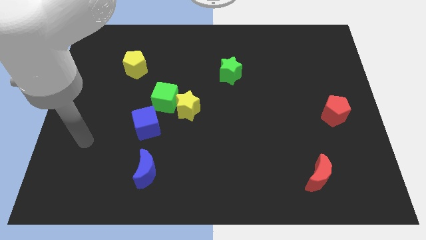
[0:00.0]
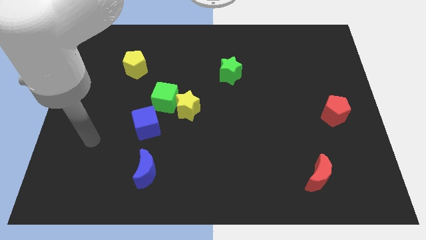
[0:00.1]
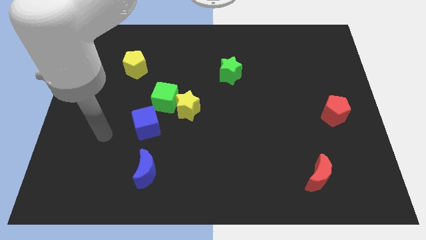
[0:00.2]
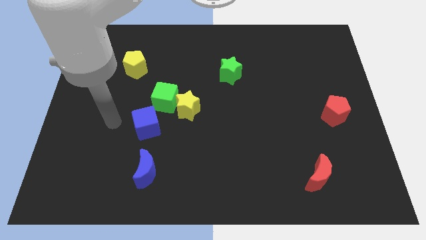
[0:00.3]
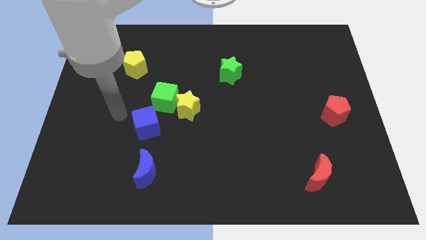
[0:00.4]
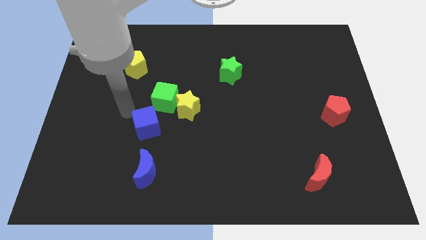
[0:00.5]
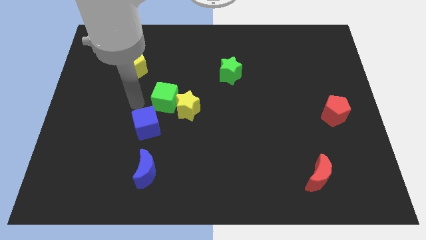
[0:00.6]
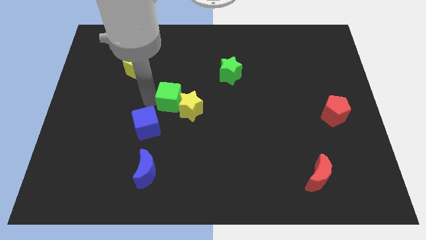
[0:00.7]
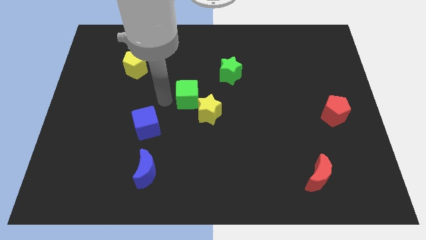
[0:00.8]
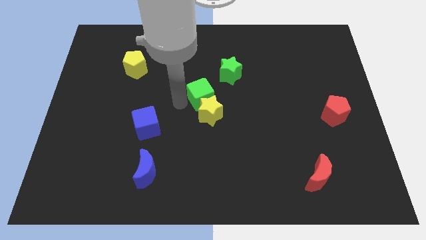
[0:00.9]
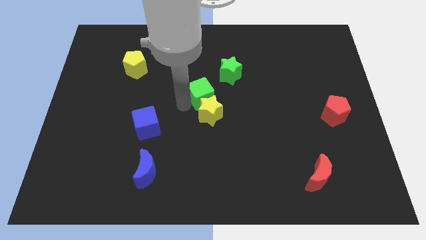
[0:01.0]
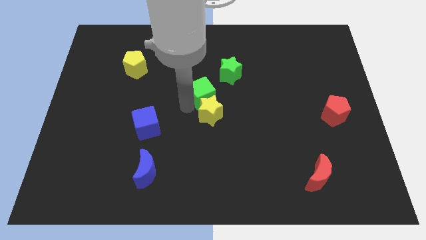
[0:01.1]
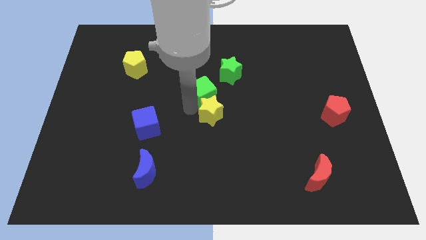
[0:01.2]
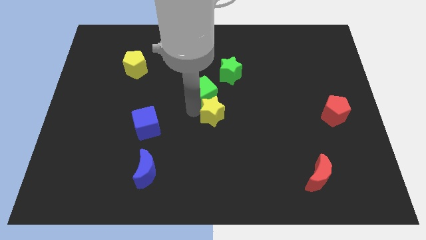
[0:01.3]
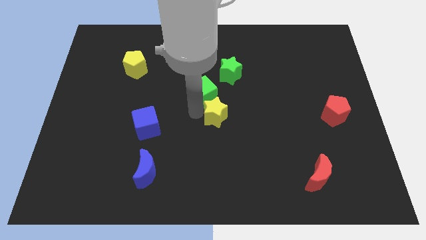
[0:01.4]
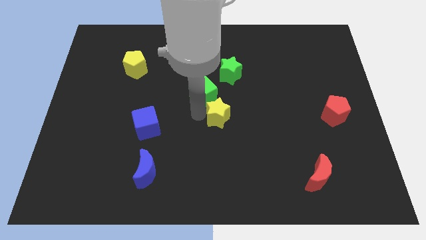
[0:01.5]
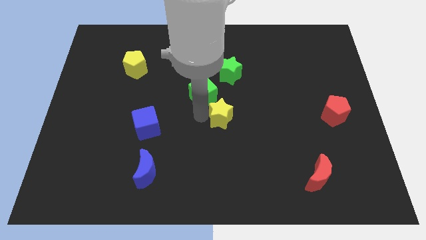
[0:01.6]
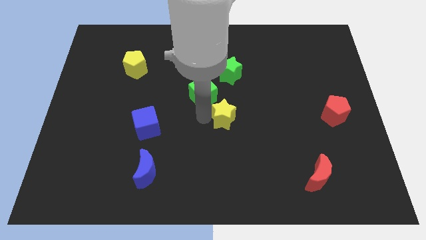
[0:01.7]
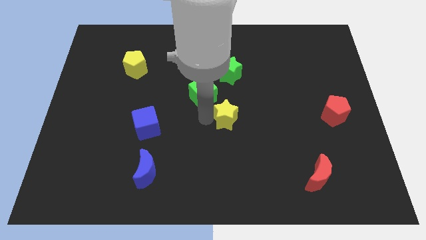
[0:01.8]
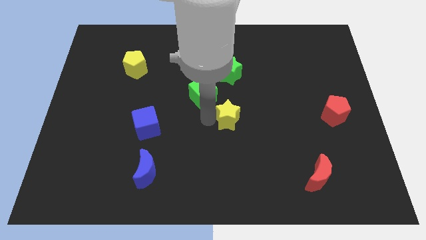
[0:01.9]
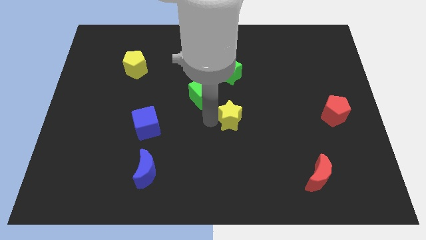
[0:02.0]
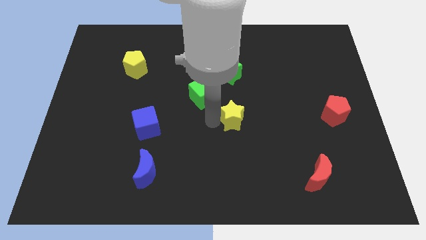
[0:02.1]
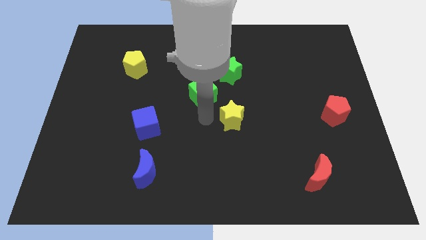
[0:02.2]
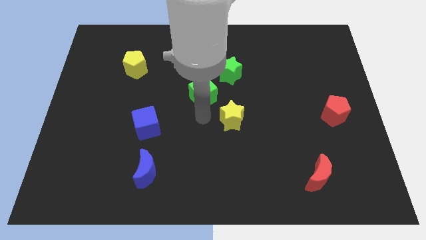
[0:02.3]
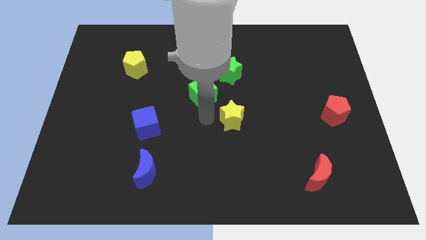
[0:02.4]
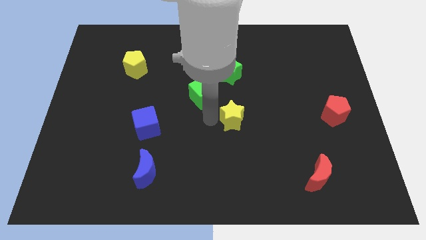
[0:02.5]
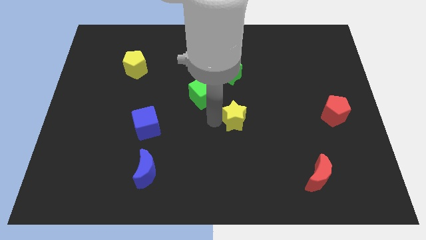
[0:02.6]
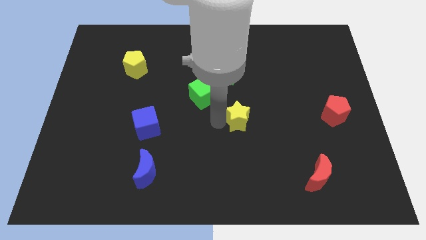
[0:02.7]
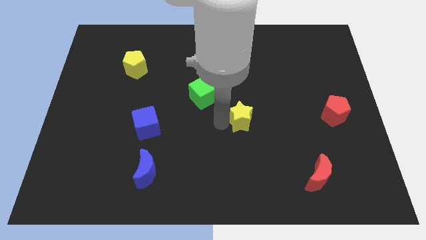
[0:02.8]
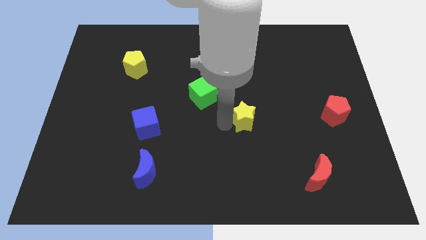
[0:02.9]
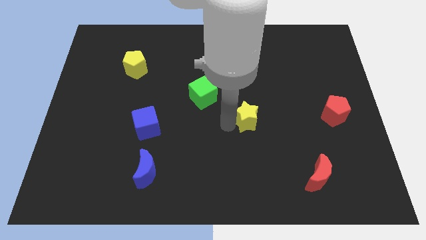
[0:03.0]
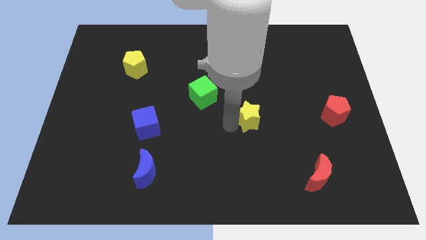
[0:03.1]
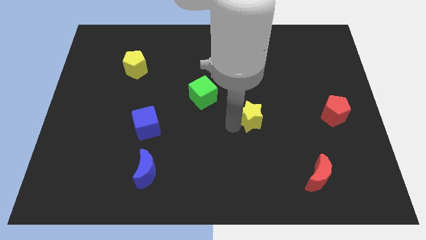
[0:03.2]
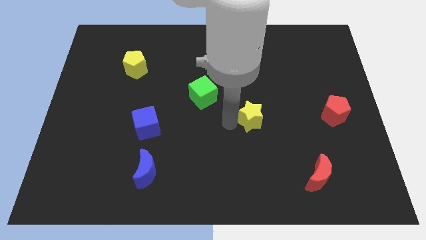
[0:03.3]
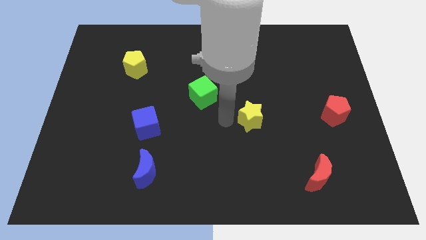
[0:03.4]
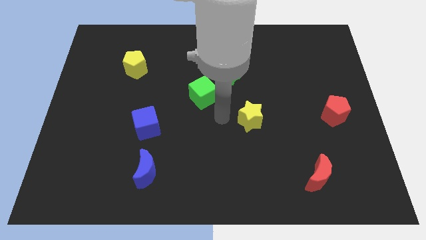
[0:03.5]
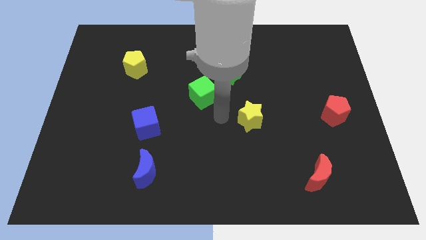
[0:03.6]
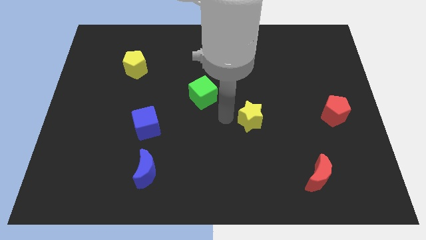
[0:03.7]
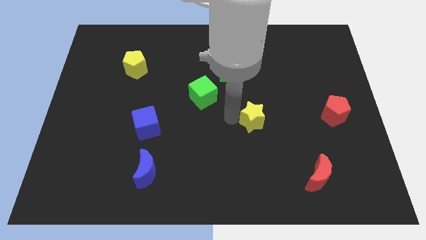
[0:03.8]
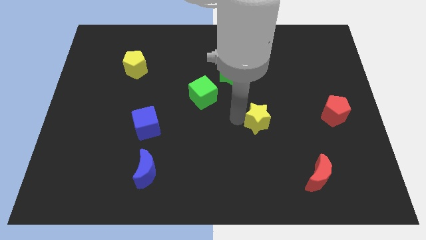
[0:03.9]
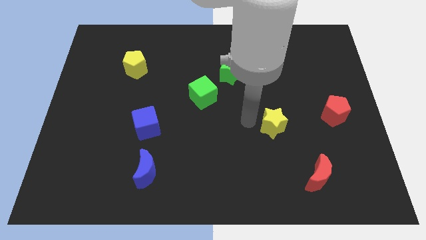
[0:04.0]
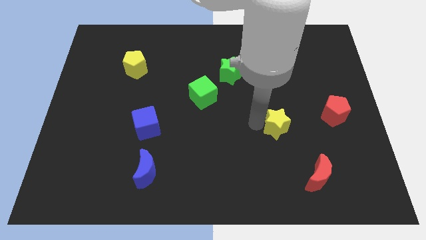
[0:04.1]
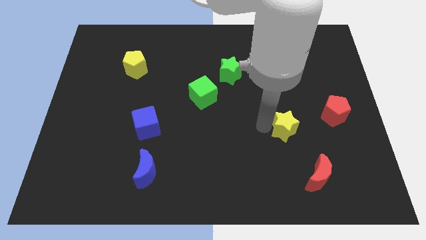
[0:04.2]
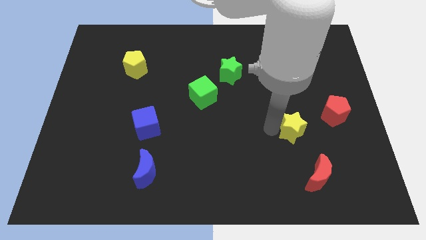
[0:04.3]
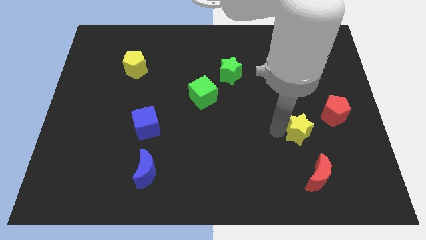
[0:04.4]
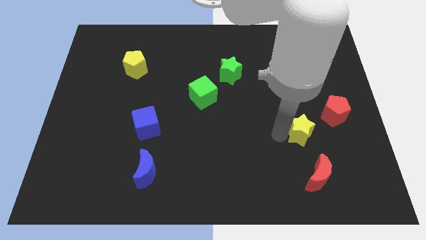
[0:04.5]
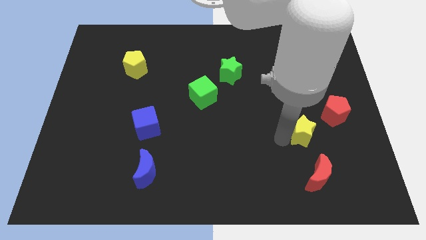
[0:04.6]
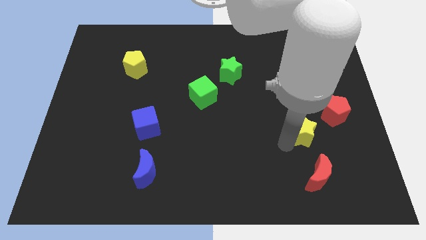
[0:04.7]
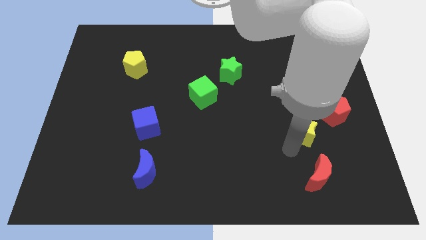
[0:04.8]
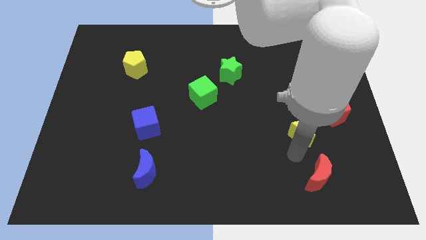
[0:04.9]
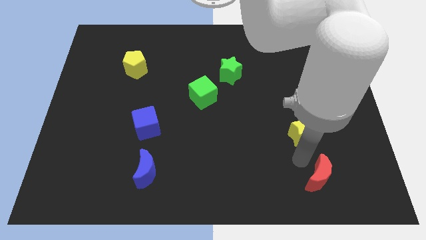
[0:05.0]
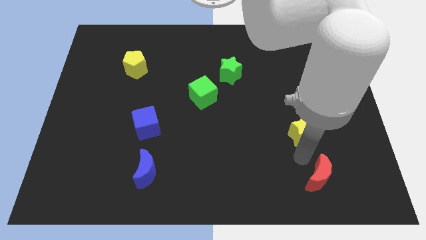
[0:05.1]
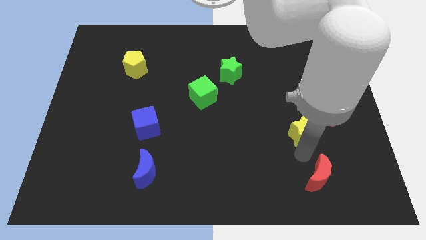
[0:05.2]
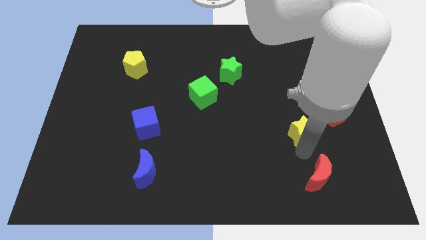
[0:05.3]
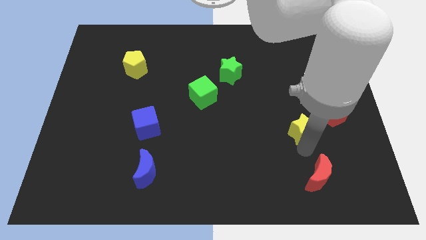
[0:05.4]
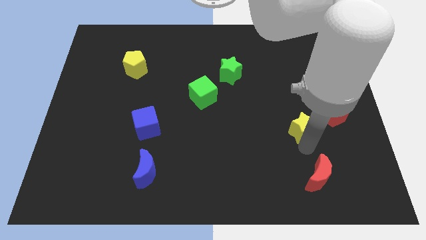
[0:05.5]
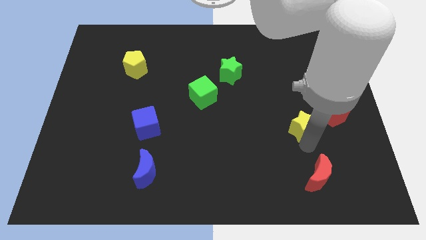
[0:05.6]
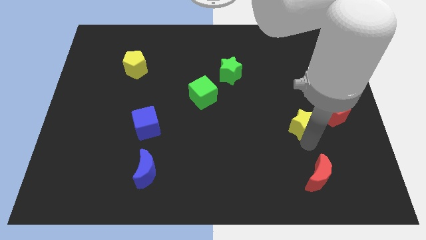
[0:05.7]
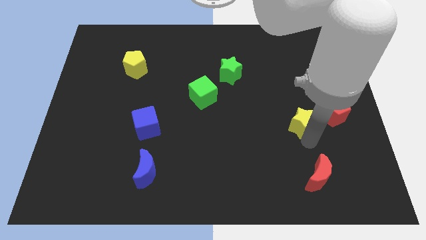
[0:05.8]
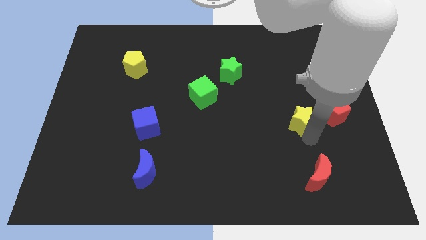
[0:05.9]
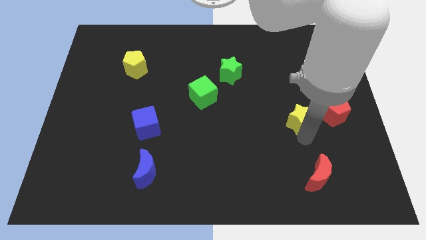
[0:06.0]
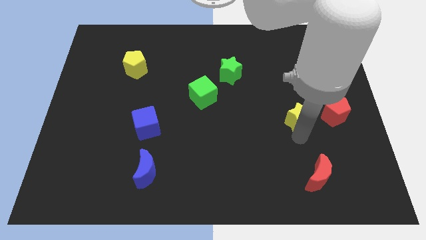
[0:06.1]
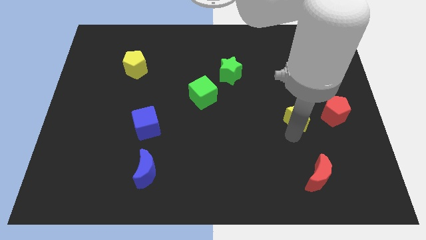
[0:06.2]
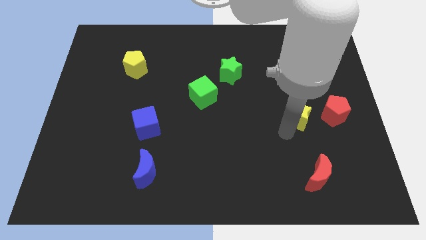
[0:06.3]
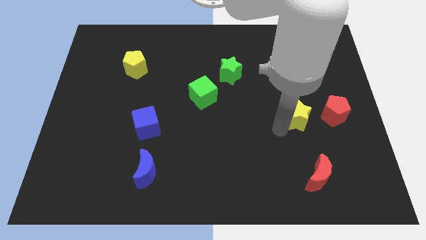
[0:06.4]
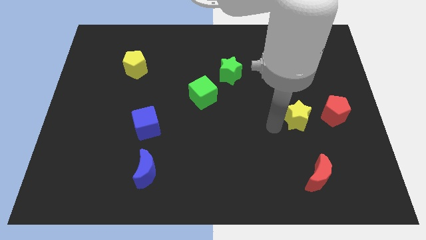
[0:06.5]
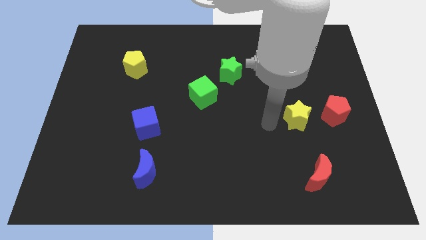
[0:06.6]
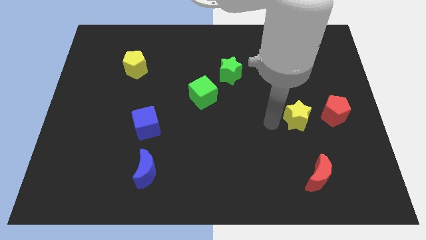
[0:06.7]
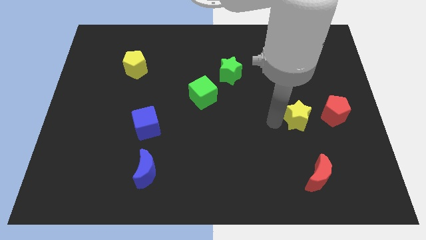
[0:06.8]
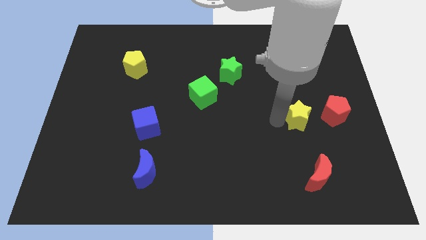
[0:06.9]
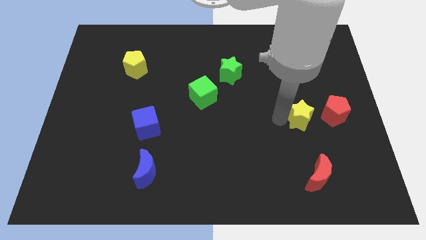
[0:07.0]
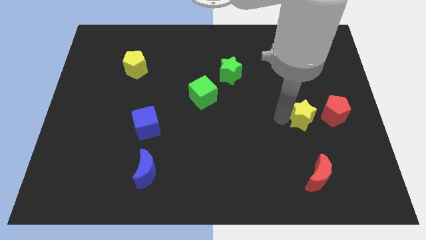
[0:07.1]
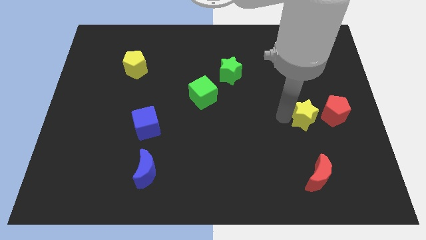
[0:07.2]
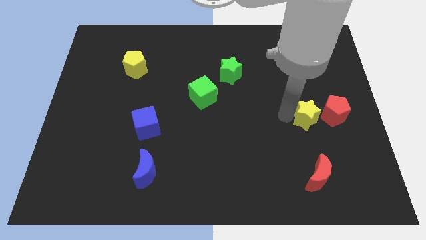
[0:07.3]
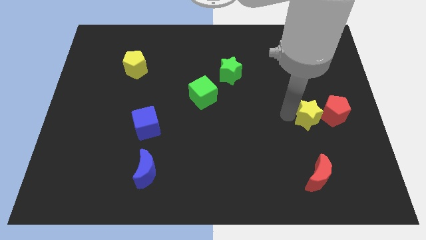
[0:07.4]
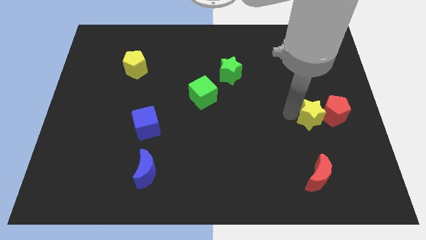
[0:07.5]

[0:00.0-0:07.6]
push the yellow star close to the red pentagon
